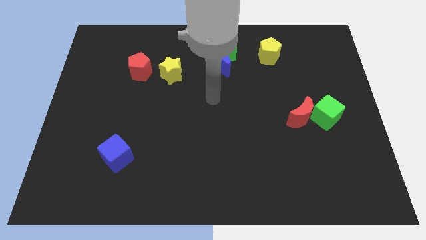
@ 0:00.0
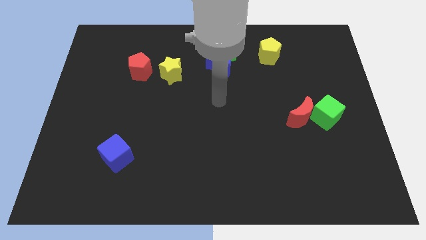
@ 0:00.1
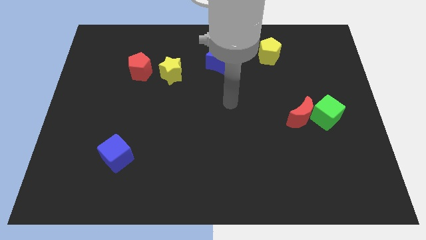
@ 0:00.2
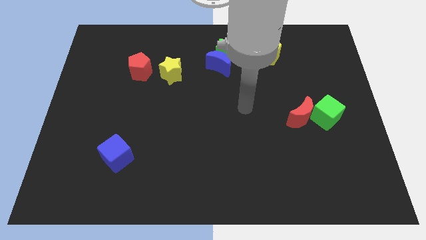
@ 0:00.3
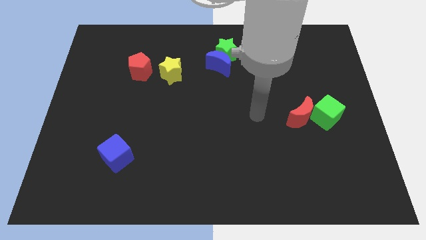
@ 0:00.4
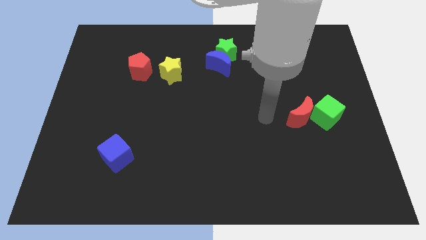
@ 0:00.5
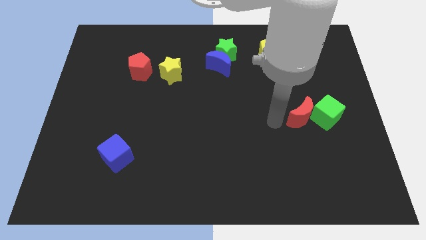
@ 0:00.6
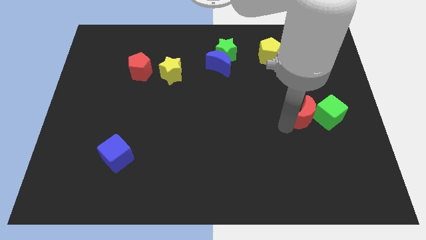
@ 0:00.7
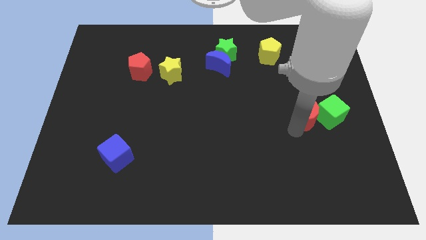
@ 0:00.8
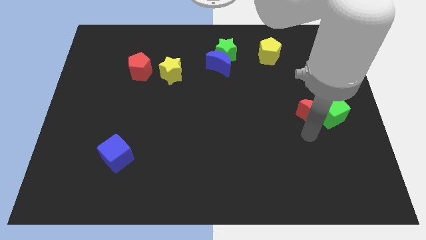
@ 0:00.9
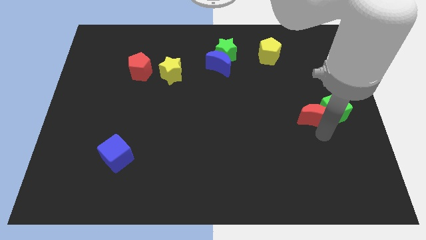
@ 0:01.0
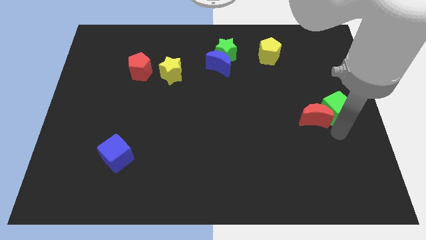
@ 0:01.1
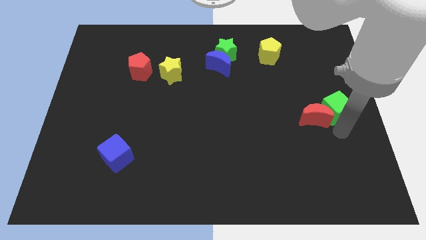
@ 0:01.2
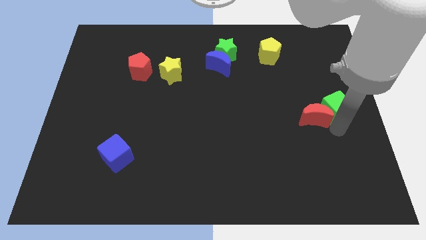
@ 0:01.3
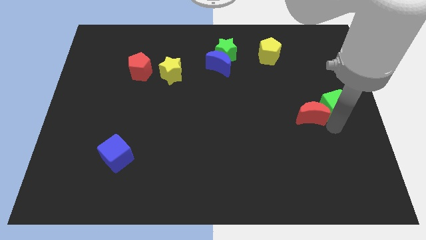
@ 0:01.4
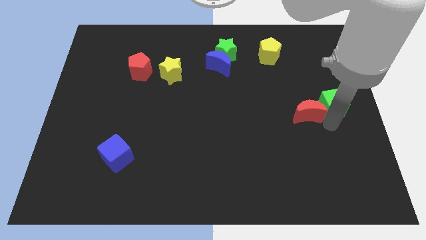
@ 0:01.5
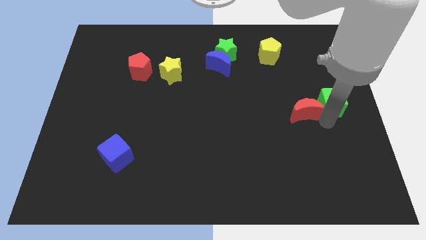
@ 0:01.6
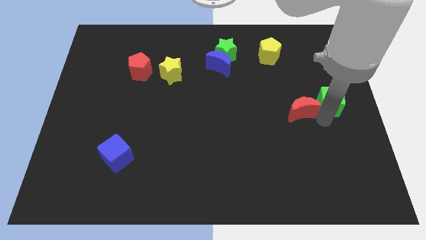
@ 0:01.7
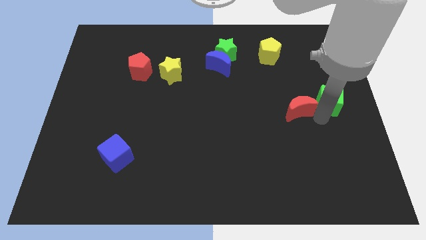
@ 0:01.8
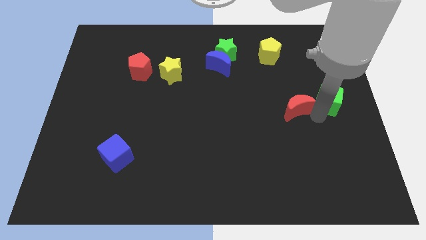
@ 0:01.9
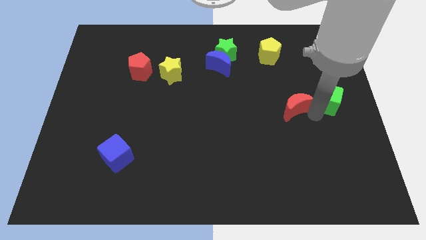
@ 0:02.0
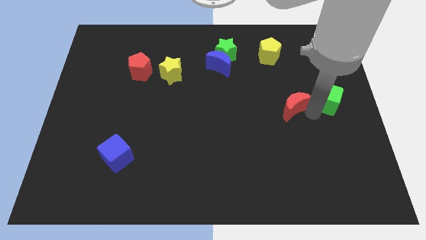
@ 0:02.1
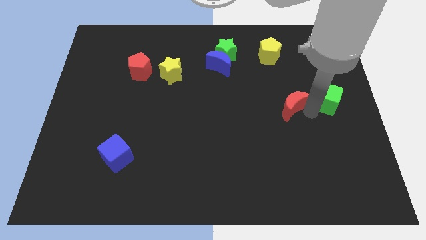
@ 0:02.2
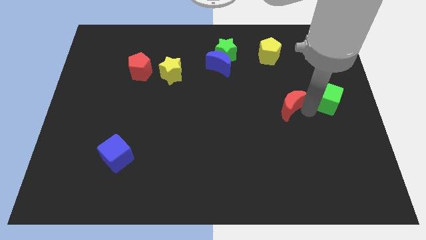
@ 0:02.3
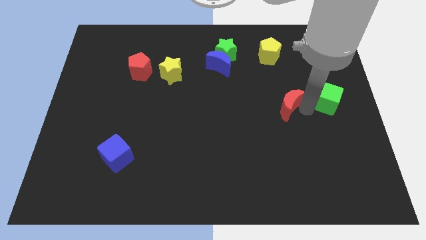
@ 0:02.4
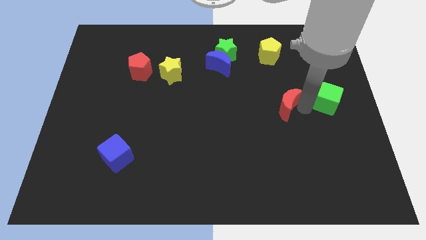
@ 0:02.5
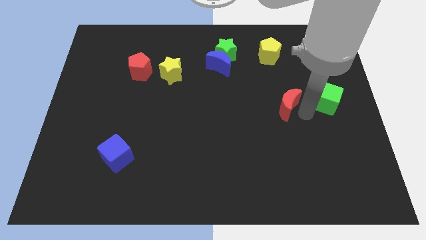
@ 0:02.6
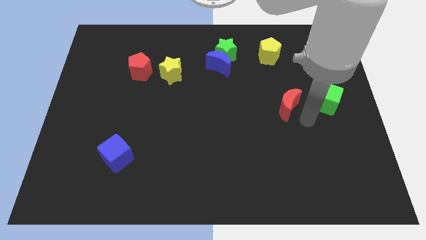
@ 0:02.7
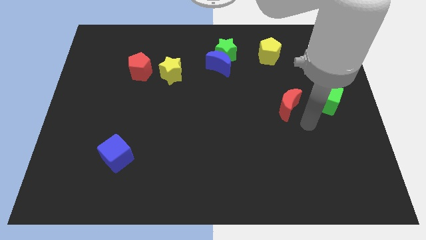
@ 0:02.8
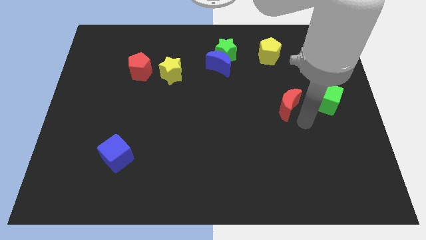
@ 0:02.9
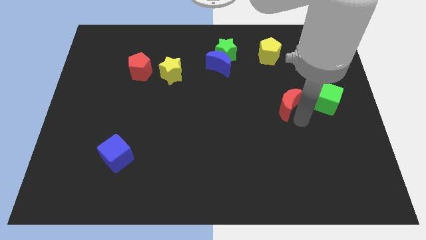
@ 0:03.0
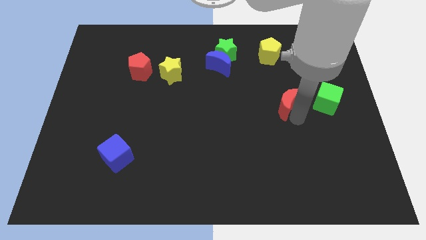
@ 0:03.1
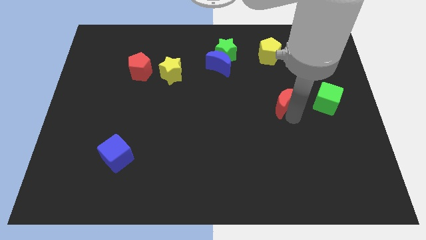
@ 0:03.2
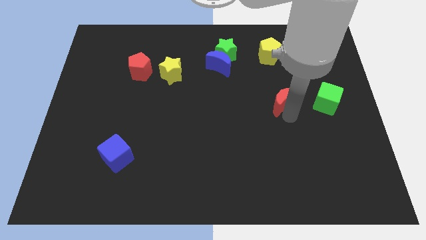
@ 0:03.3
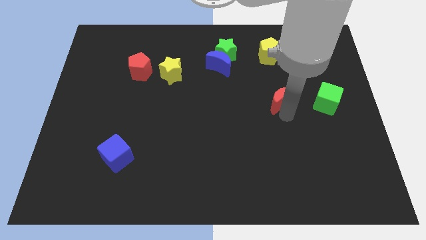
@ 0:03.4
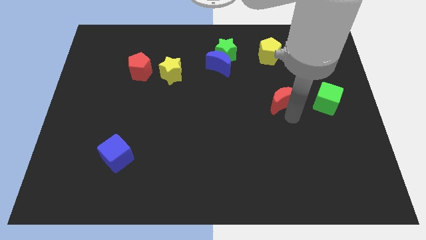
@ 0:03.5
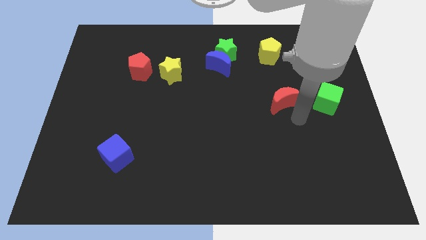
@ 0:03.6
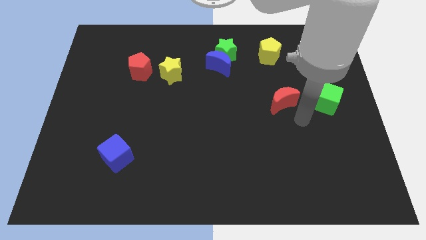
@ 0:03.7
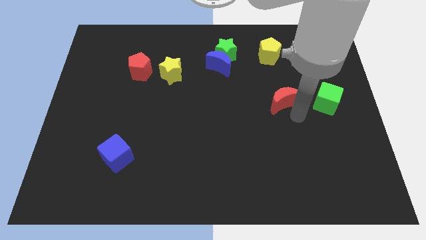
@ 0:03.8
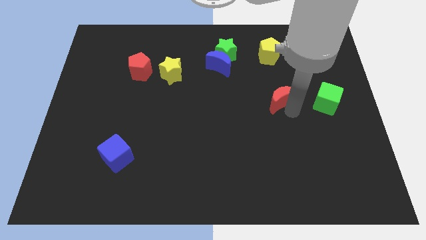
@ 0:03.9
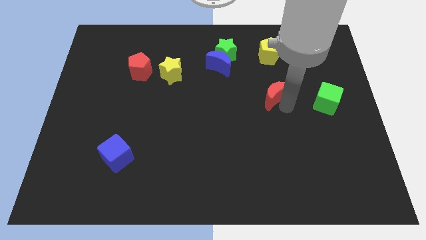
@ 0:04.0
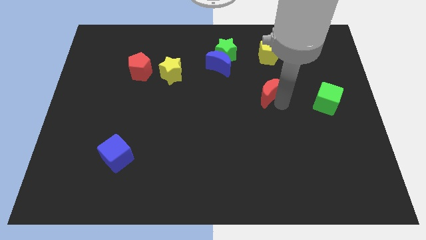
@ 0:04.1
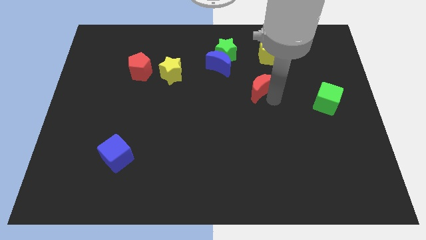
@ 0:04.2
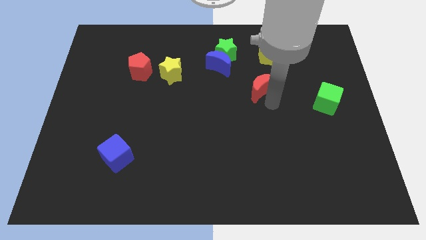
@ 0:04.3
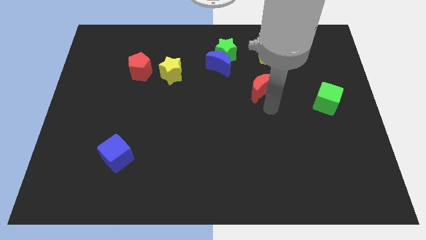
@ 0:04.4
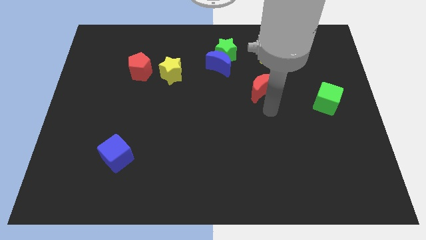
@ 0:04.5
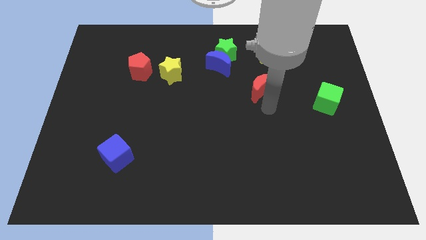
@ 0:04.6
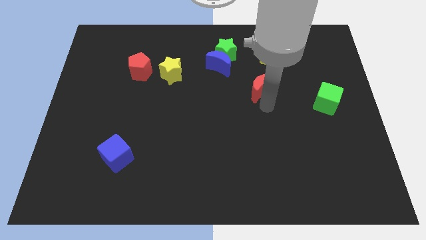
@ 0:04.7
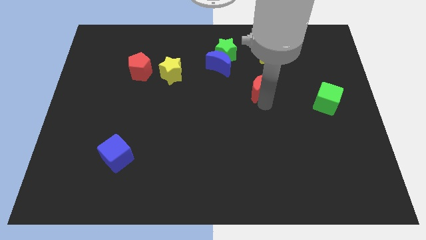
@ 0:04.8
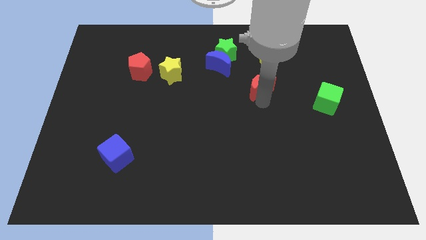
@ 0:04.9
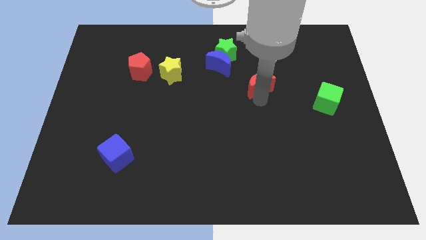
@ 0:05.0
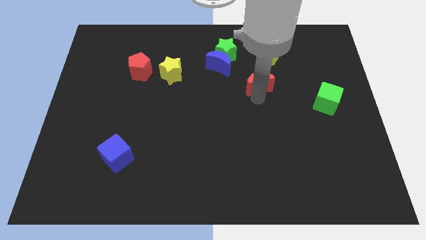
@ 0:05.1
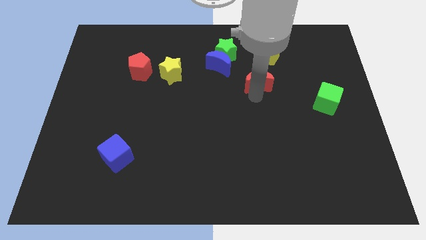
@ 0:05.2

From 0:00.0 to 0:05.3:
push the red moon to the bottom left side of the yellow pentagon

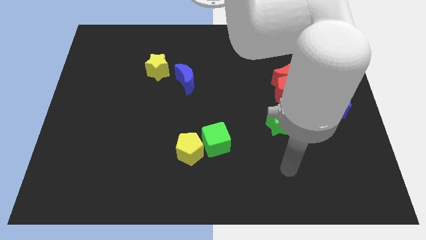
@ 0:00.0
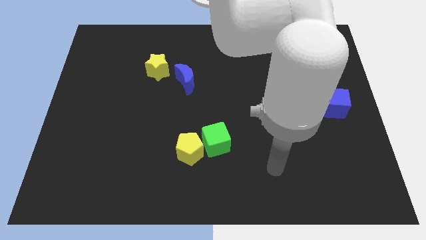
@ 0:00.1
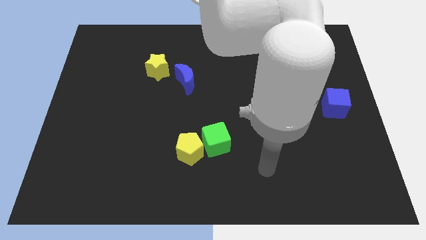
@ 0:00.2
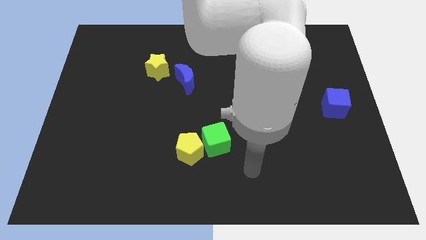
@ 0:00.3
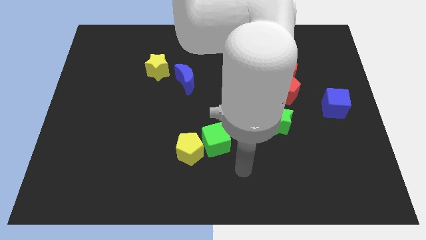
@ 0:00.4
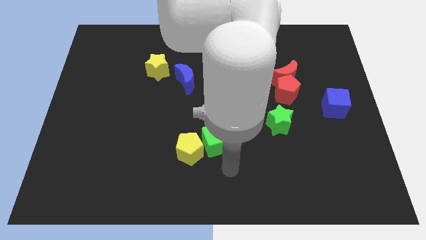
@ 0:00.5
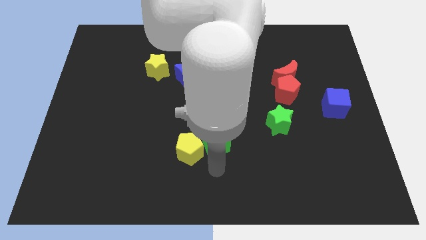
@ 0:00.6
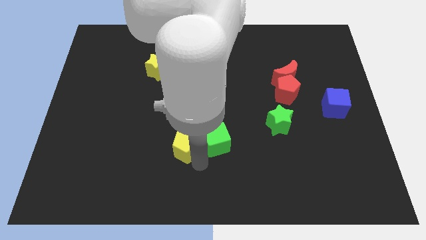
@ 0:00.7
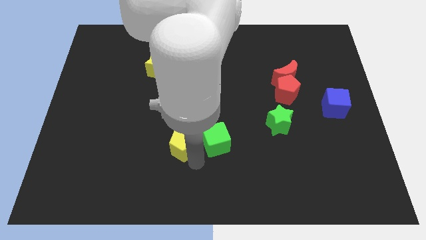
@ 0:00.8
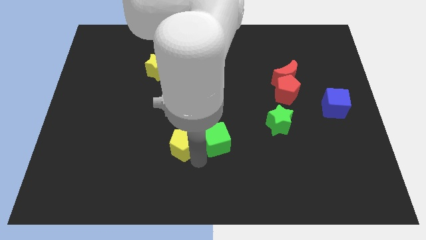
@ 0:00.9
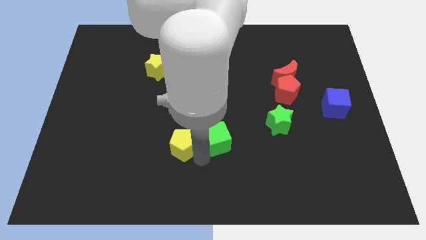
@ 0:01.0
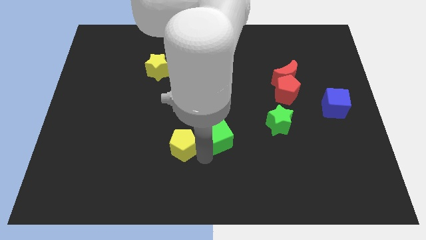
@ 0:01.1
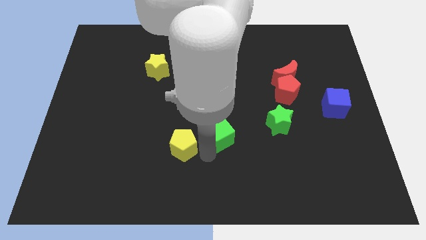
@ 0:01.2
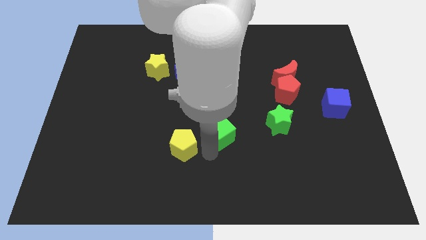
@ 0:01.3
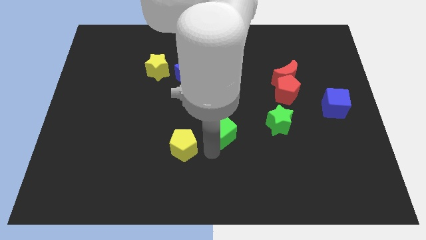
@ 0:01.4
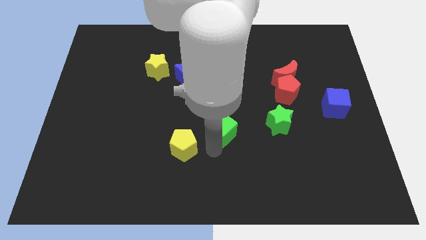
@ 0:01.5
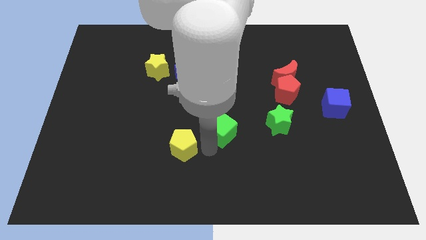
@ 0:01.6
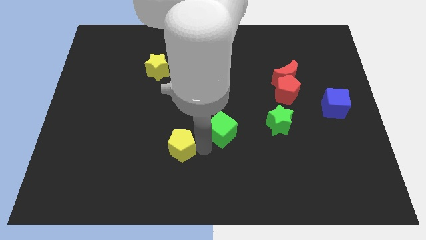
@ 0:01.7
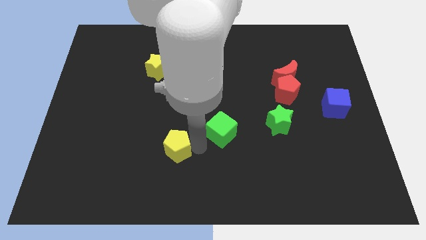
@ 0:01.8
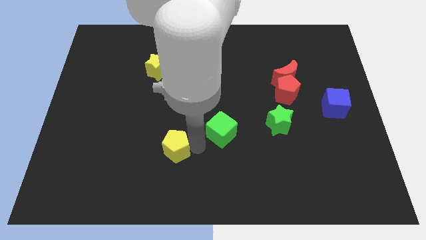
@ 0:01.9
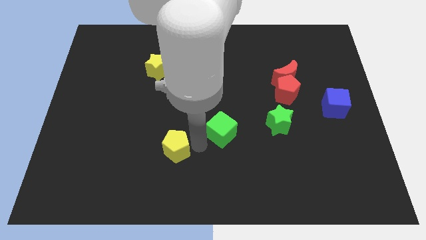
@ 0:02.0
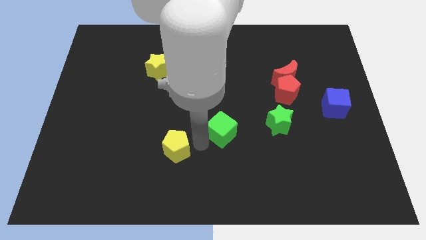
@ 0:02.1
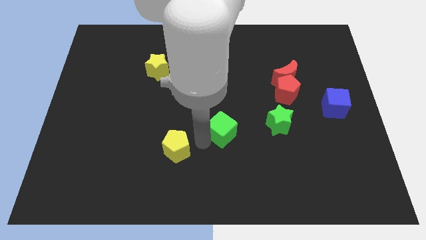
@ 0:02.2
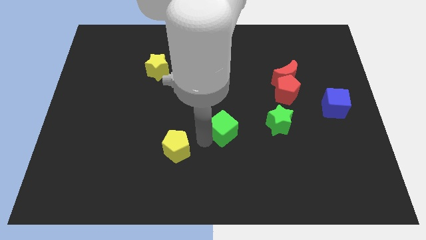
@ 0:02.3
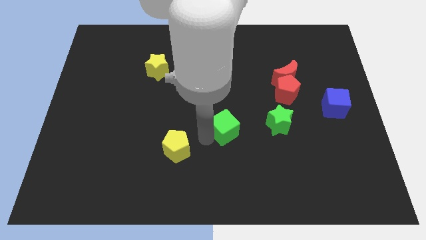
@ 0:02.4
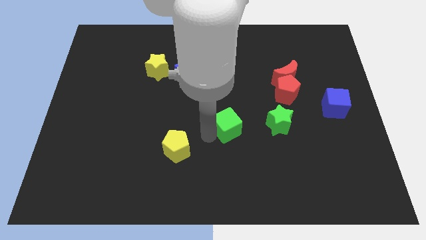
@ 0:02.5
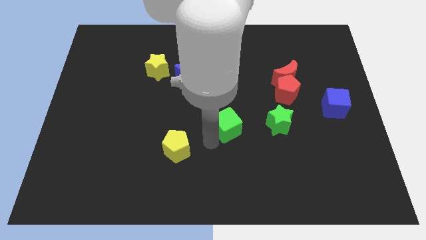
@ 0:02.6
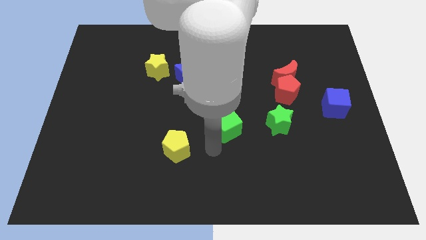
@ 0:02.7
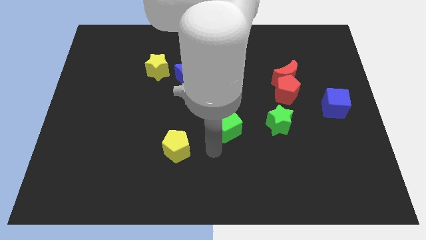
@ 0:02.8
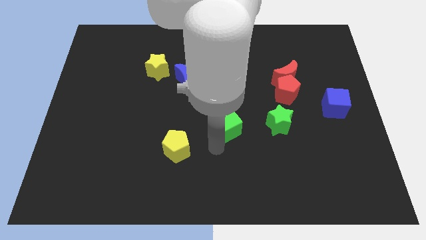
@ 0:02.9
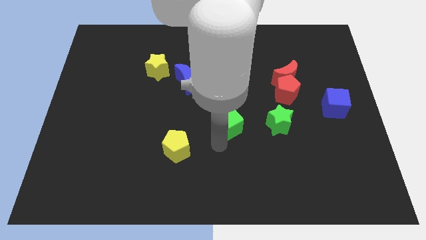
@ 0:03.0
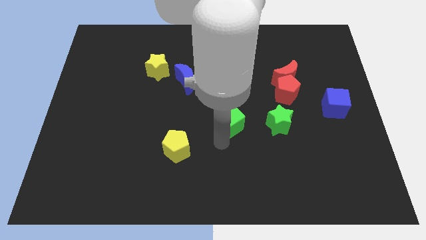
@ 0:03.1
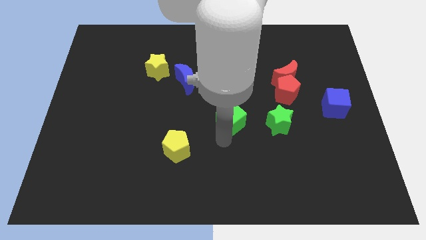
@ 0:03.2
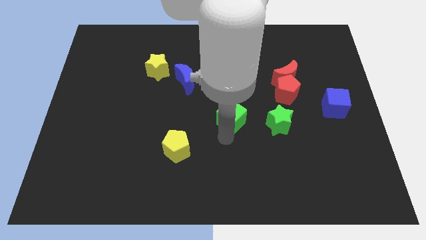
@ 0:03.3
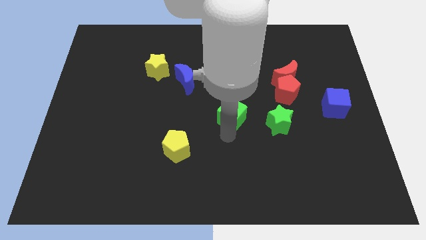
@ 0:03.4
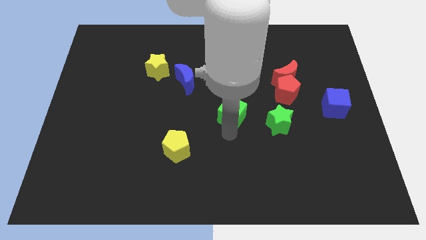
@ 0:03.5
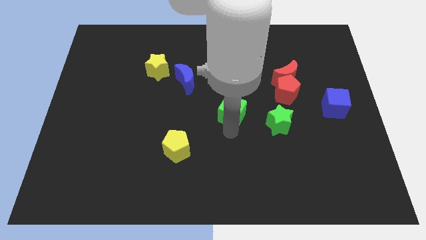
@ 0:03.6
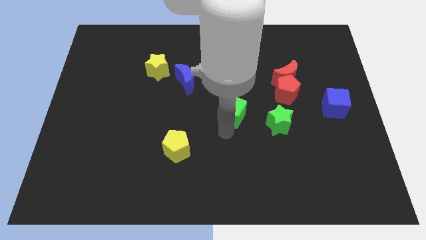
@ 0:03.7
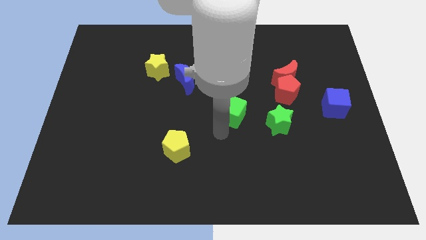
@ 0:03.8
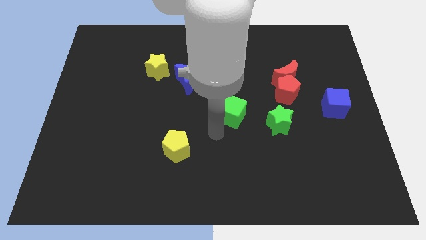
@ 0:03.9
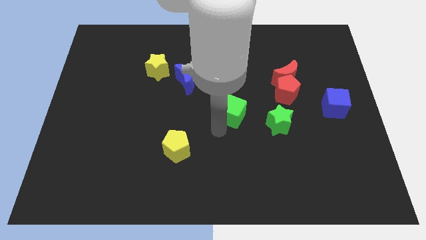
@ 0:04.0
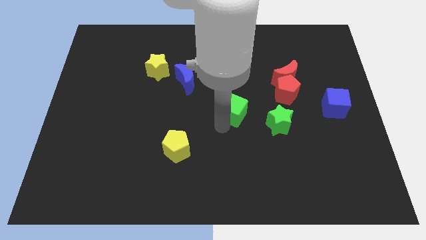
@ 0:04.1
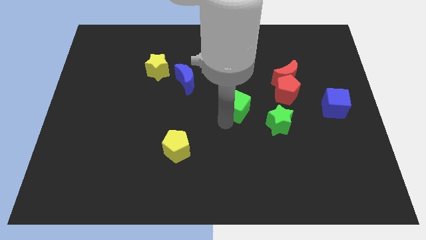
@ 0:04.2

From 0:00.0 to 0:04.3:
slide the green cube just left of the red pentagon
